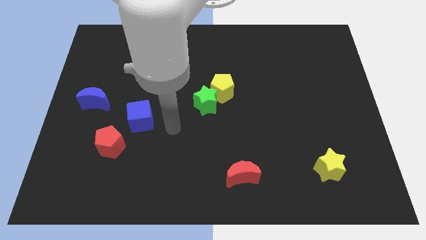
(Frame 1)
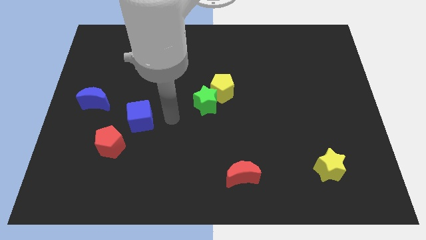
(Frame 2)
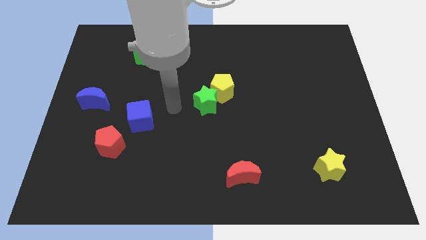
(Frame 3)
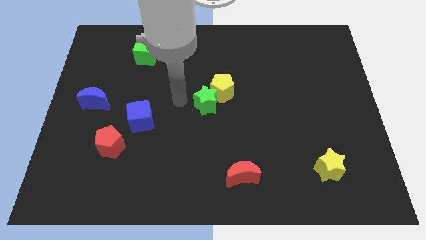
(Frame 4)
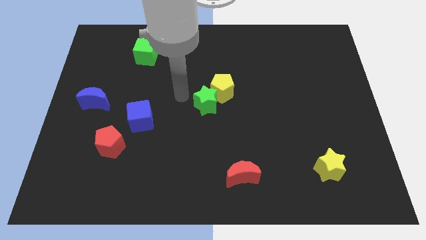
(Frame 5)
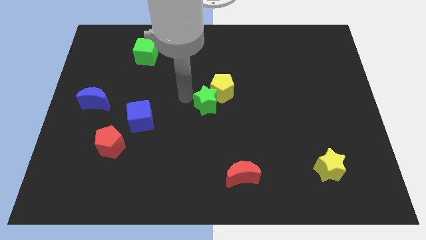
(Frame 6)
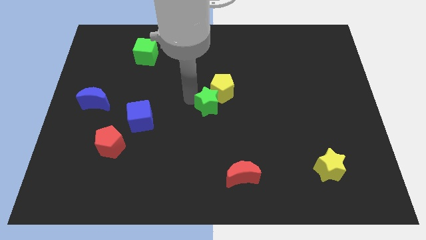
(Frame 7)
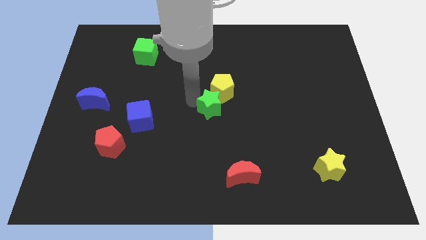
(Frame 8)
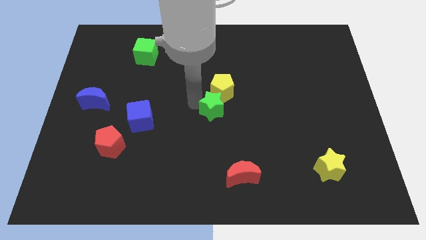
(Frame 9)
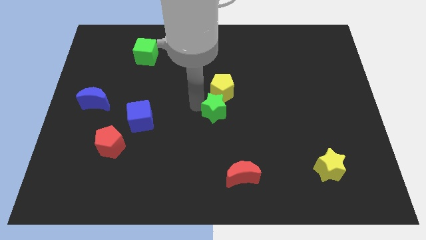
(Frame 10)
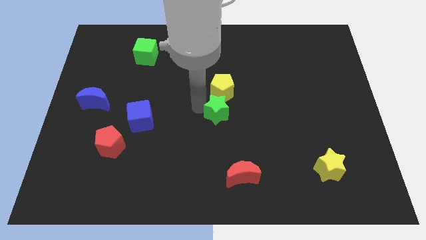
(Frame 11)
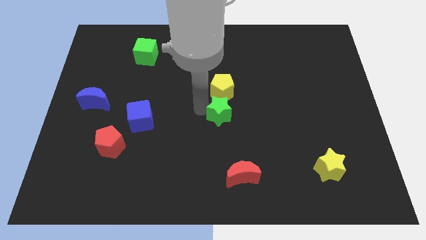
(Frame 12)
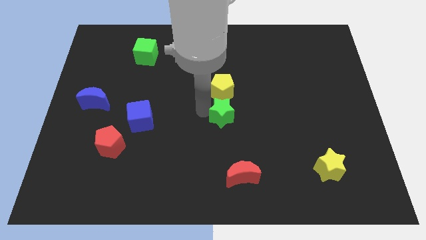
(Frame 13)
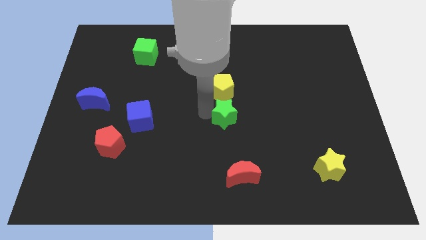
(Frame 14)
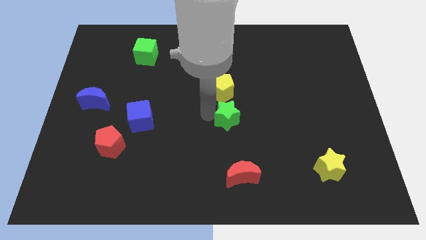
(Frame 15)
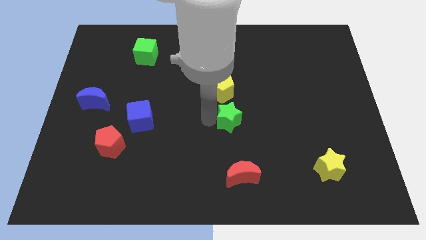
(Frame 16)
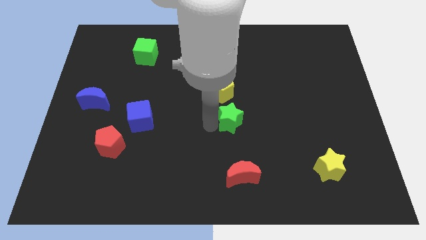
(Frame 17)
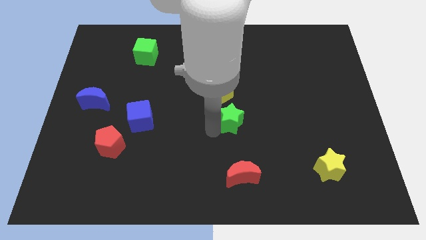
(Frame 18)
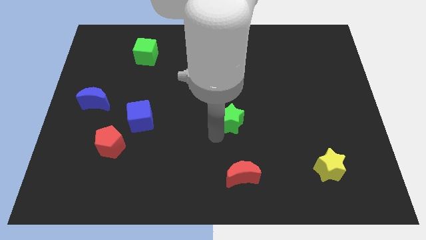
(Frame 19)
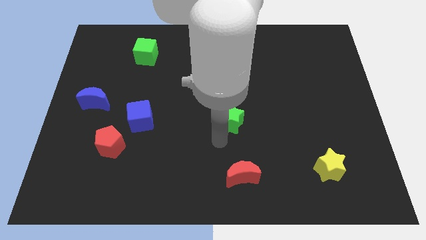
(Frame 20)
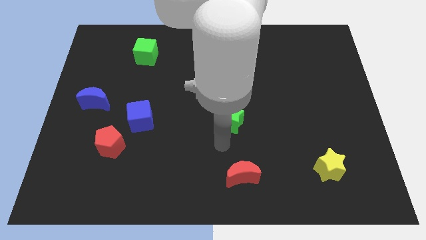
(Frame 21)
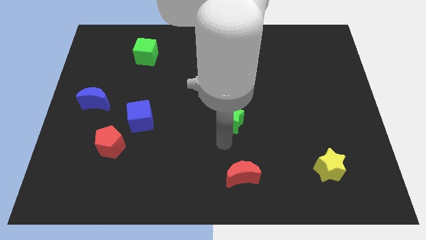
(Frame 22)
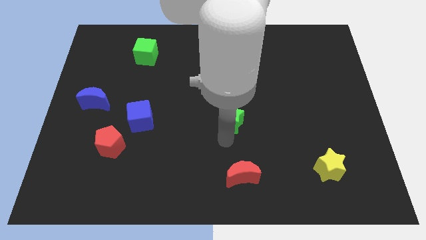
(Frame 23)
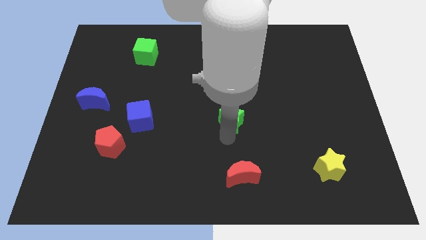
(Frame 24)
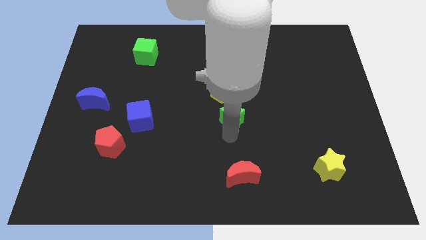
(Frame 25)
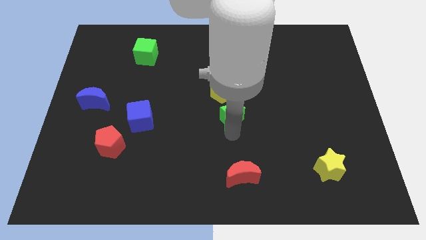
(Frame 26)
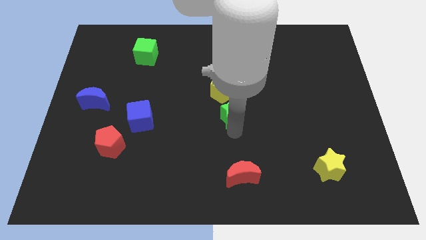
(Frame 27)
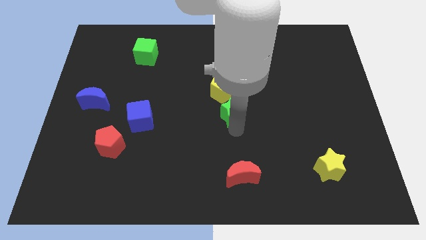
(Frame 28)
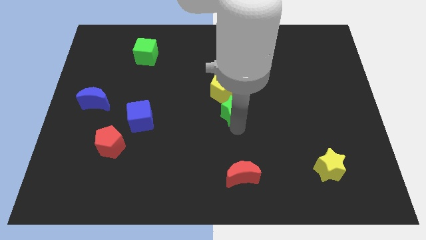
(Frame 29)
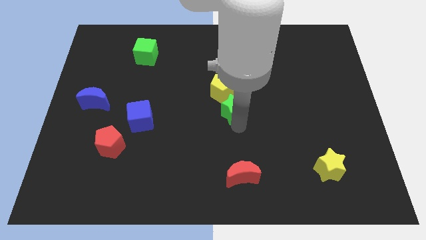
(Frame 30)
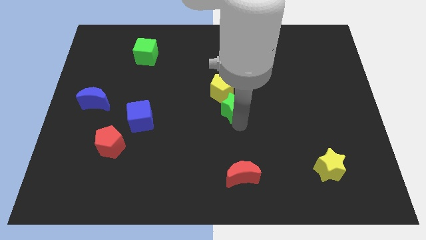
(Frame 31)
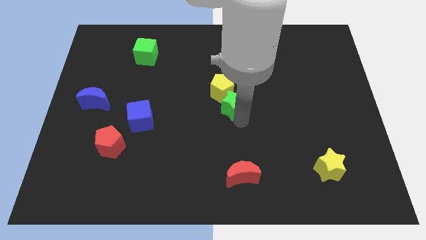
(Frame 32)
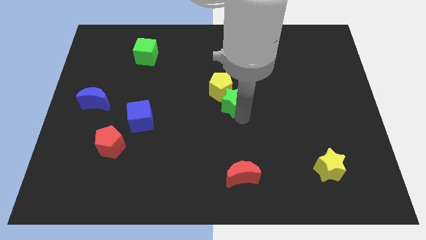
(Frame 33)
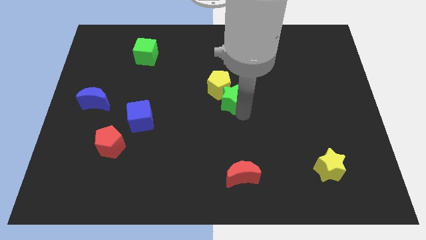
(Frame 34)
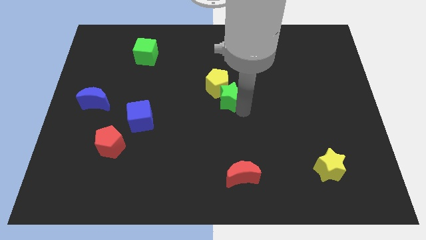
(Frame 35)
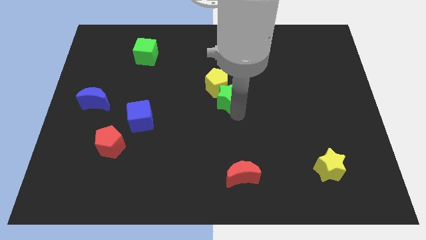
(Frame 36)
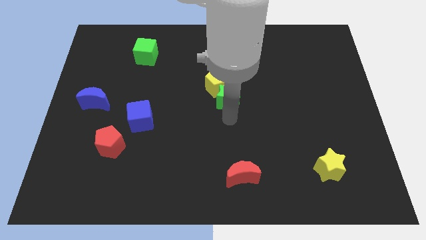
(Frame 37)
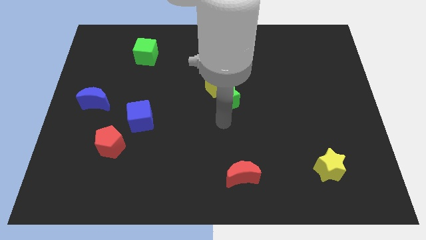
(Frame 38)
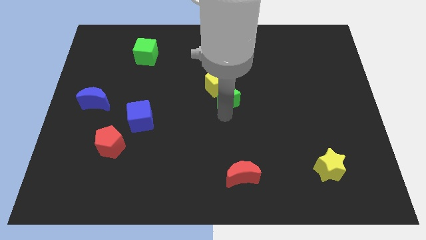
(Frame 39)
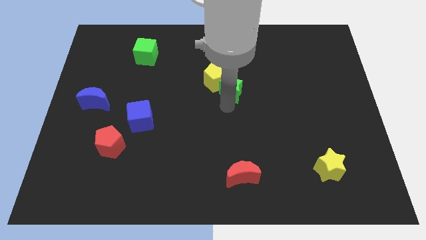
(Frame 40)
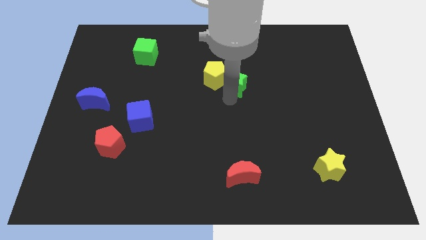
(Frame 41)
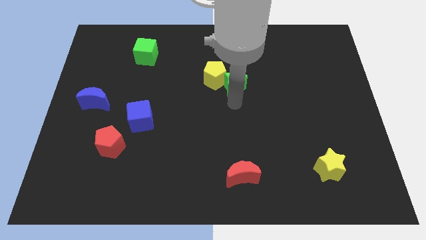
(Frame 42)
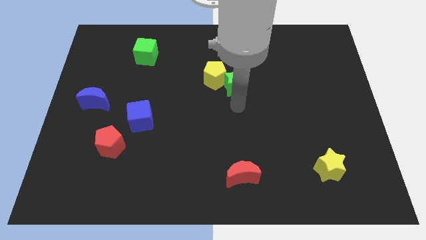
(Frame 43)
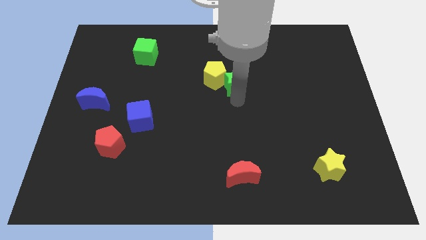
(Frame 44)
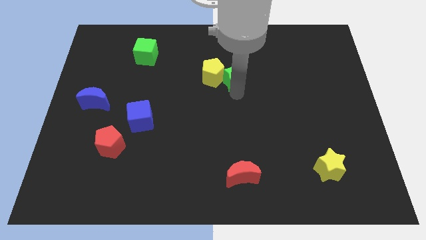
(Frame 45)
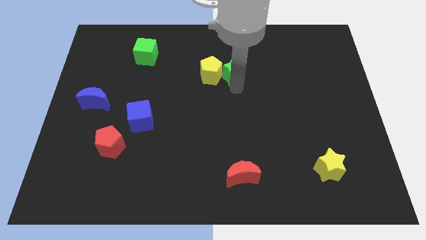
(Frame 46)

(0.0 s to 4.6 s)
push the green star to the top right side of the yellow pentagon

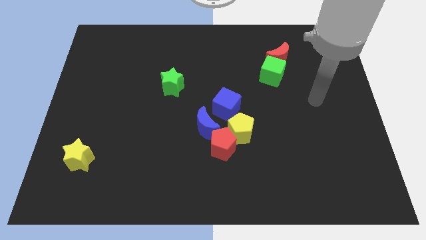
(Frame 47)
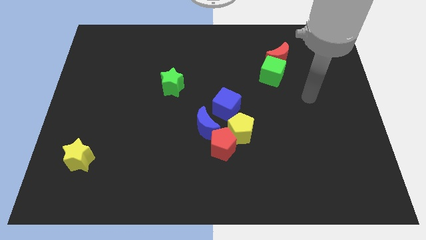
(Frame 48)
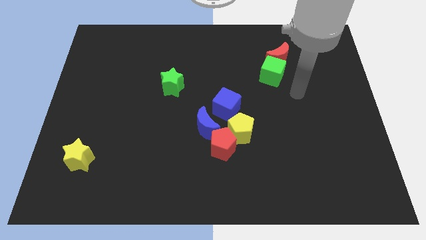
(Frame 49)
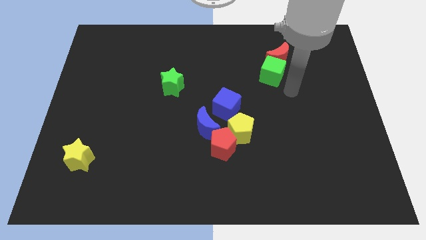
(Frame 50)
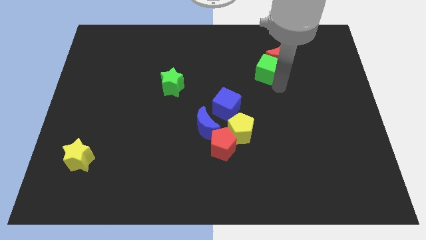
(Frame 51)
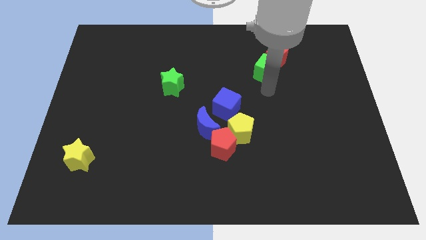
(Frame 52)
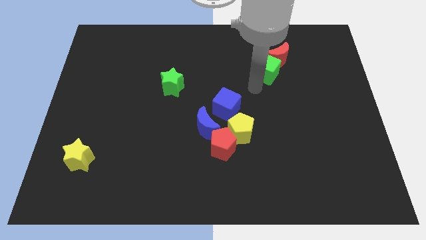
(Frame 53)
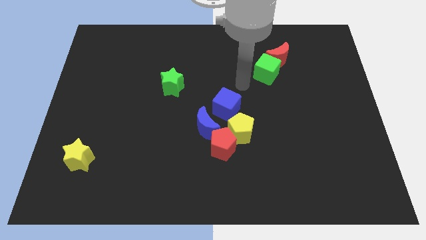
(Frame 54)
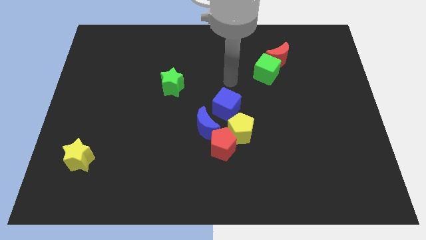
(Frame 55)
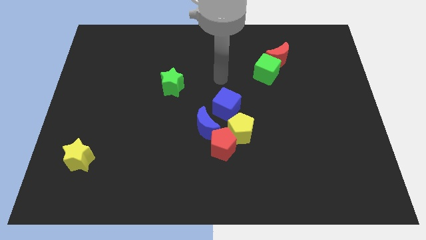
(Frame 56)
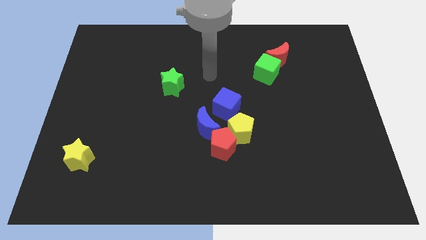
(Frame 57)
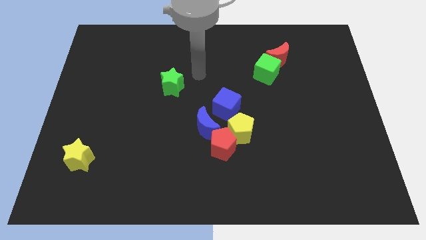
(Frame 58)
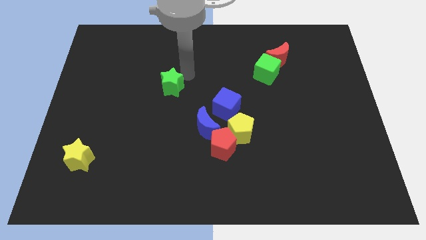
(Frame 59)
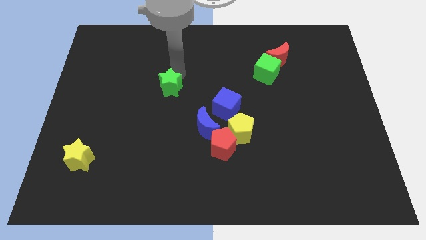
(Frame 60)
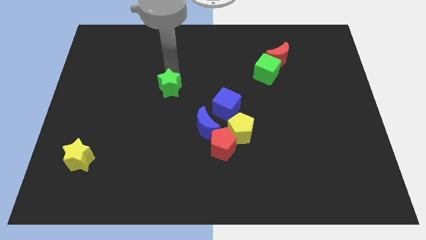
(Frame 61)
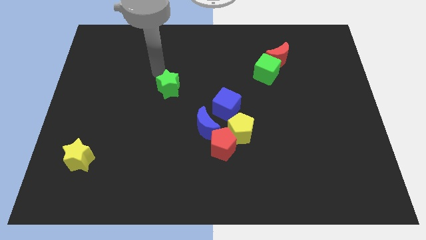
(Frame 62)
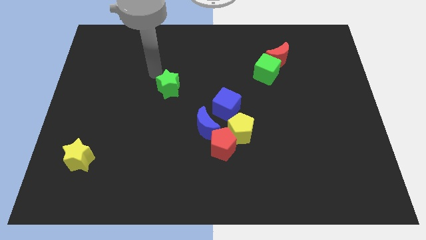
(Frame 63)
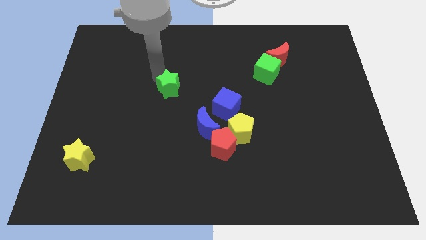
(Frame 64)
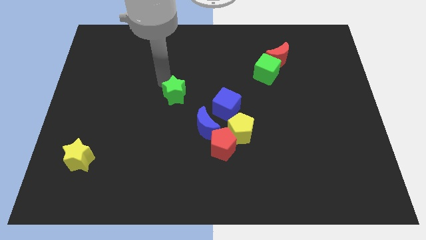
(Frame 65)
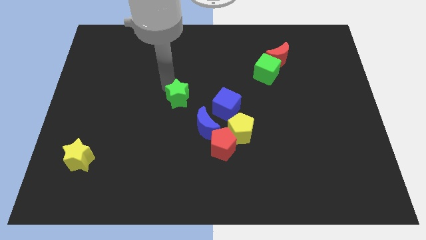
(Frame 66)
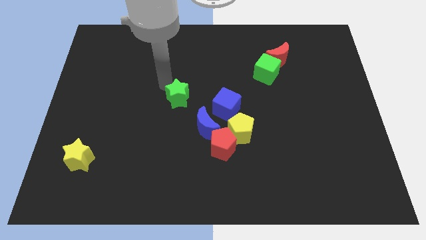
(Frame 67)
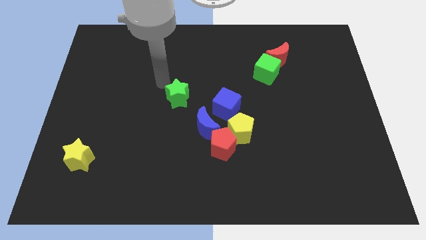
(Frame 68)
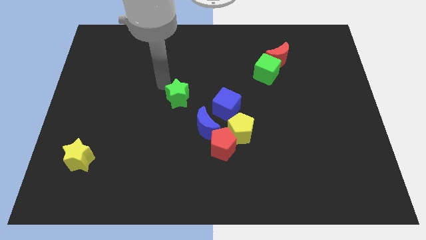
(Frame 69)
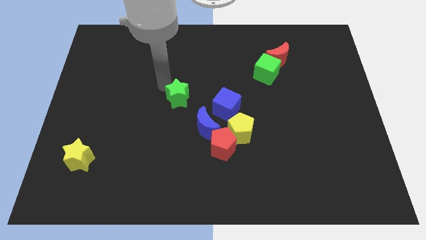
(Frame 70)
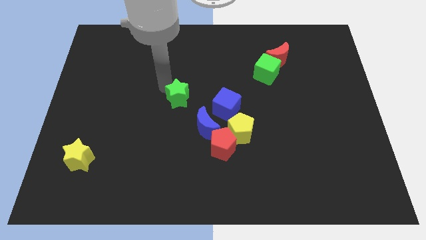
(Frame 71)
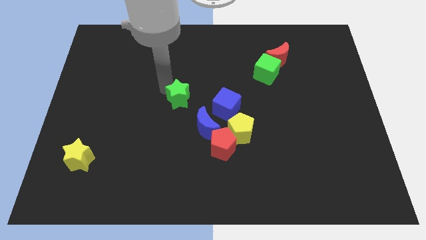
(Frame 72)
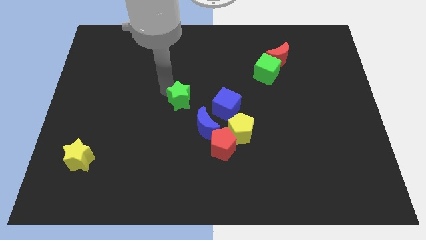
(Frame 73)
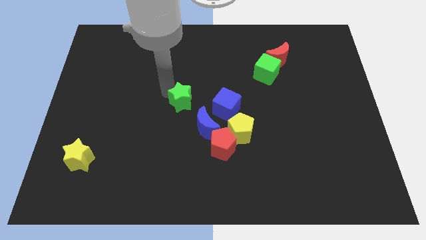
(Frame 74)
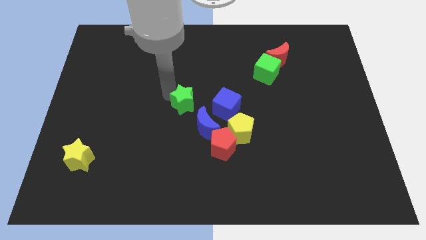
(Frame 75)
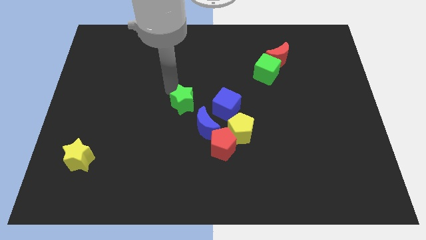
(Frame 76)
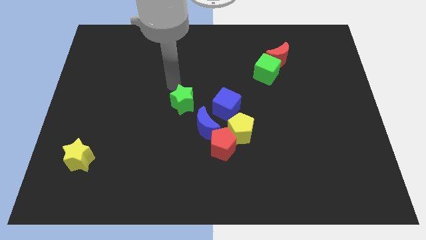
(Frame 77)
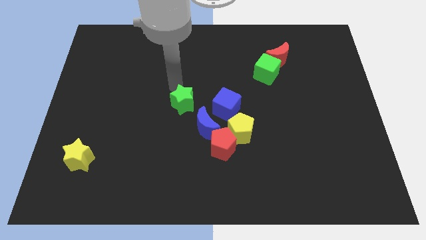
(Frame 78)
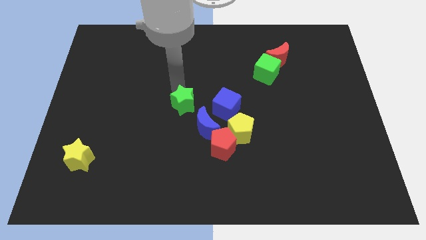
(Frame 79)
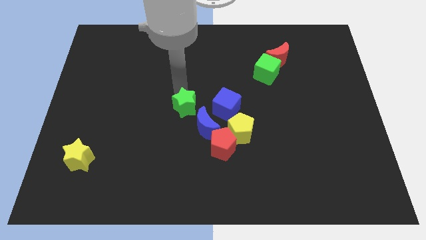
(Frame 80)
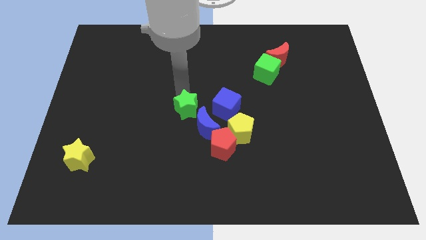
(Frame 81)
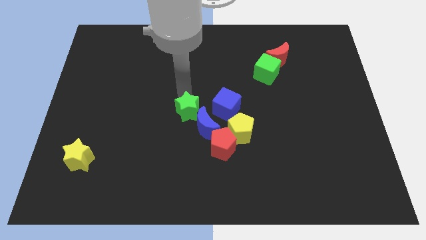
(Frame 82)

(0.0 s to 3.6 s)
put the green star to the top left of the red pentagon

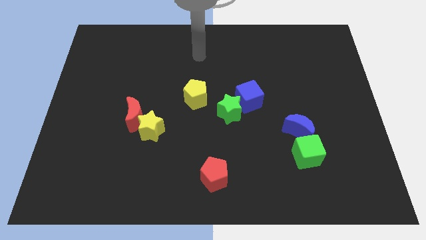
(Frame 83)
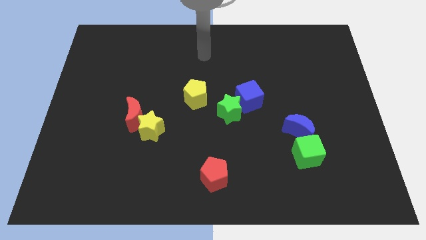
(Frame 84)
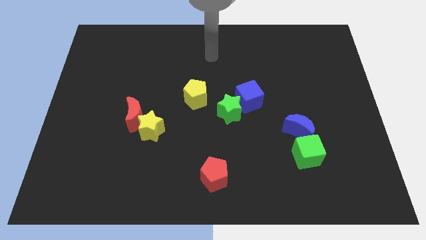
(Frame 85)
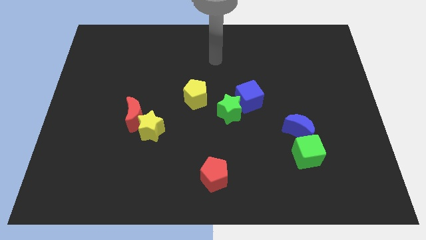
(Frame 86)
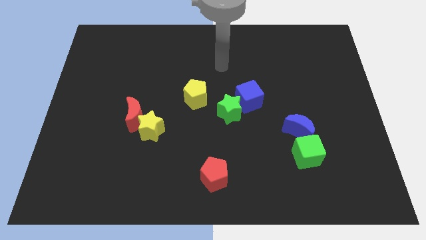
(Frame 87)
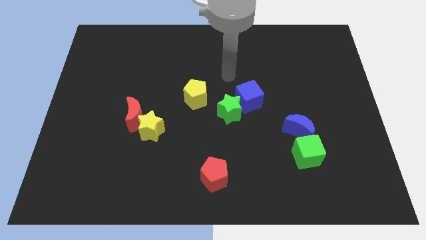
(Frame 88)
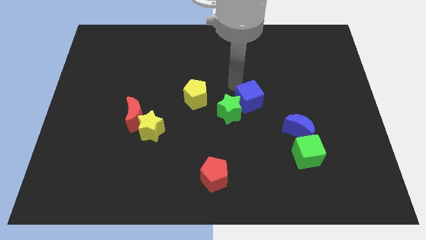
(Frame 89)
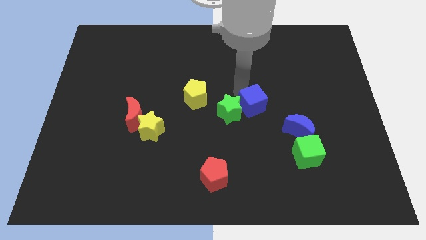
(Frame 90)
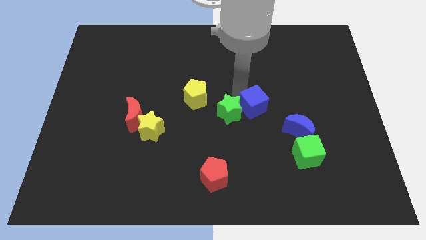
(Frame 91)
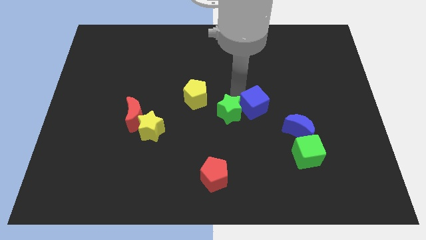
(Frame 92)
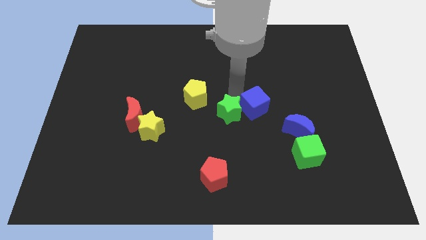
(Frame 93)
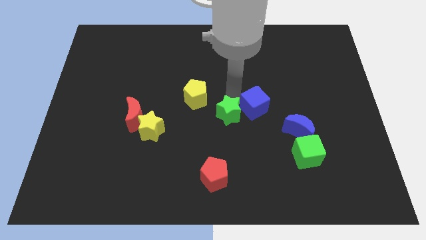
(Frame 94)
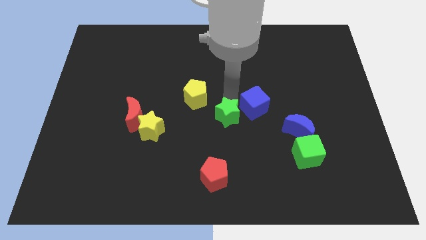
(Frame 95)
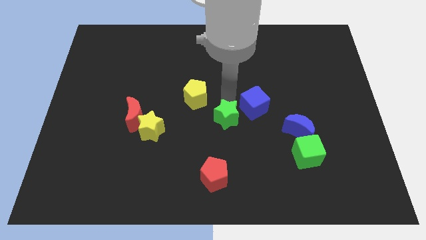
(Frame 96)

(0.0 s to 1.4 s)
move the green star above the red pentagon
